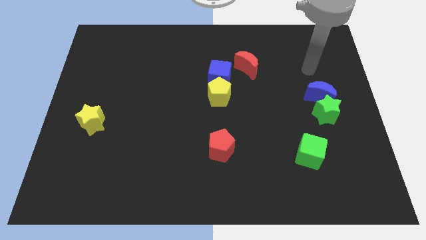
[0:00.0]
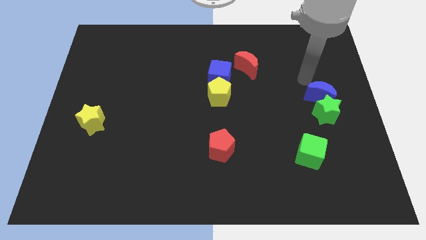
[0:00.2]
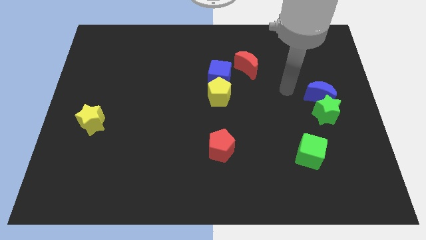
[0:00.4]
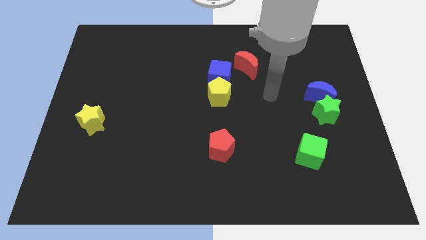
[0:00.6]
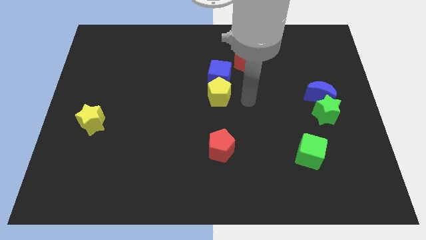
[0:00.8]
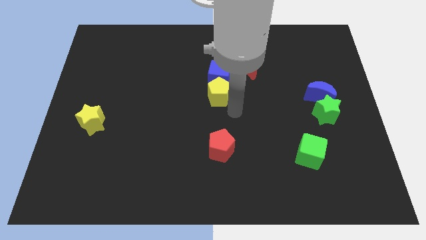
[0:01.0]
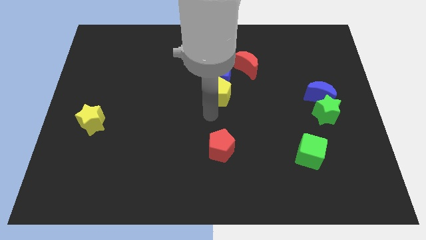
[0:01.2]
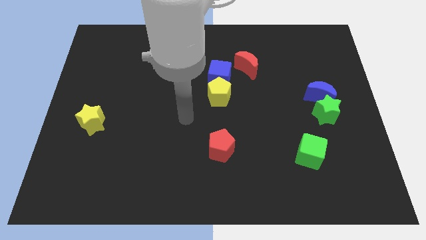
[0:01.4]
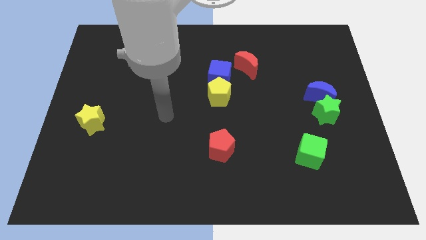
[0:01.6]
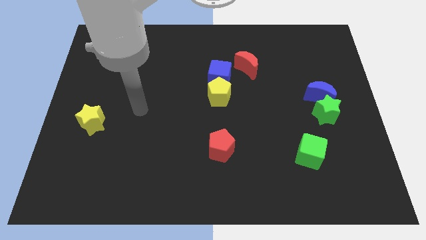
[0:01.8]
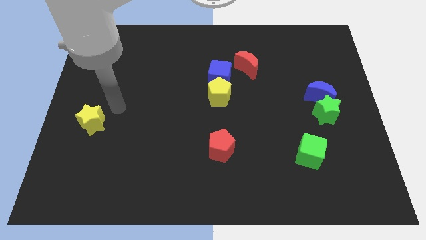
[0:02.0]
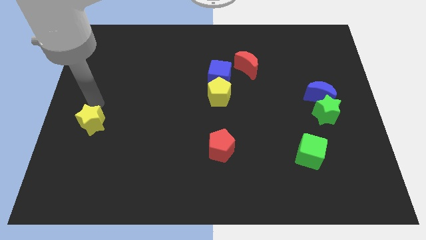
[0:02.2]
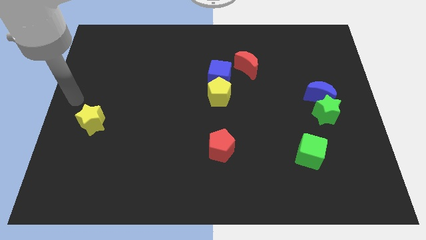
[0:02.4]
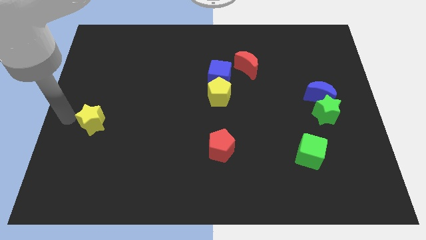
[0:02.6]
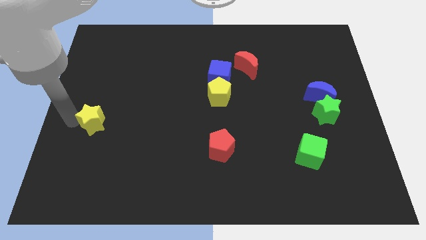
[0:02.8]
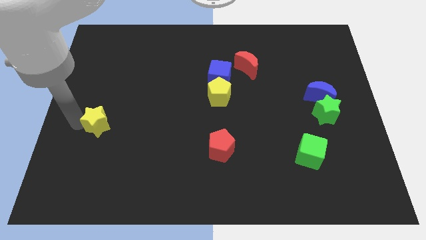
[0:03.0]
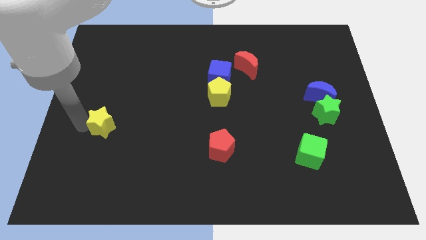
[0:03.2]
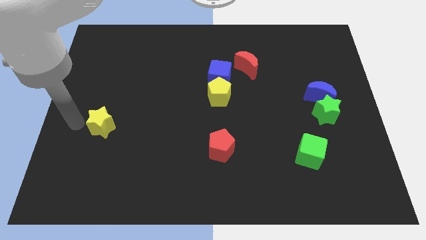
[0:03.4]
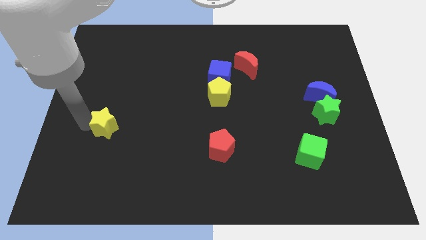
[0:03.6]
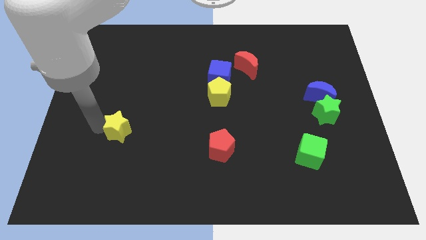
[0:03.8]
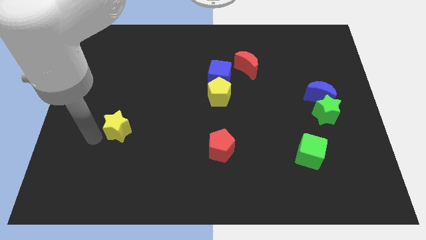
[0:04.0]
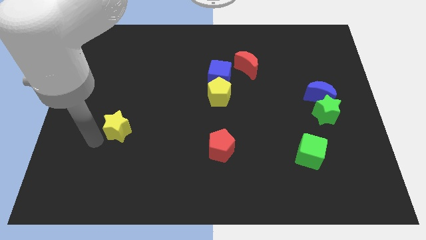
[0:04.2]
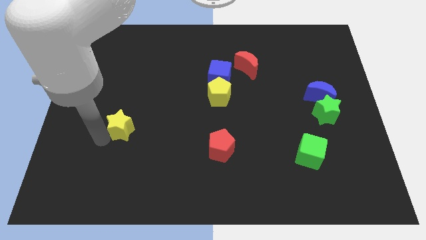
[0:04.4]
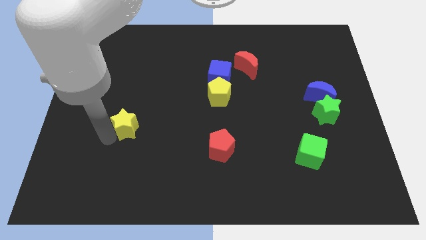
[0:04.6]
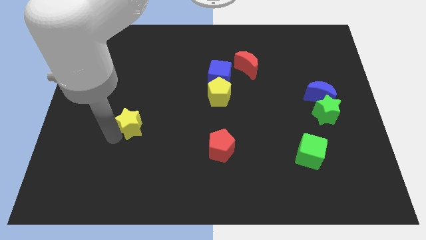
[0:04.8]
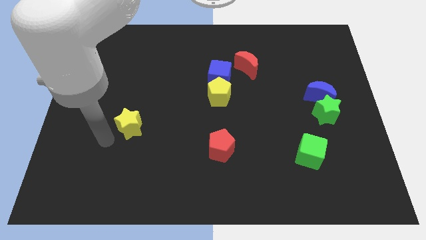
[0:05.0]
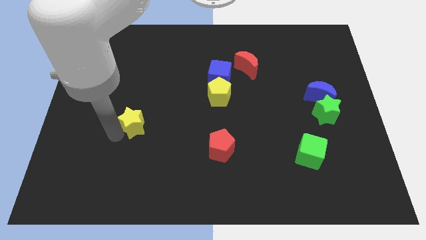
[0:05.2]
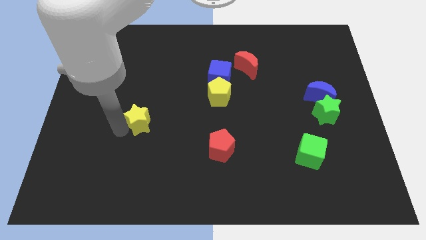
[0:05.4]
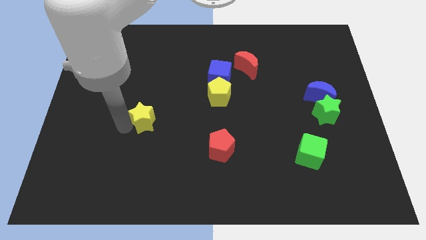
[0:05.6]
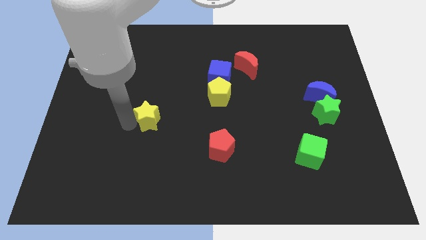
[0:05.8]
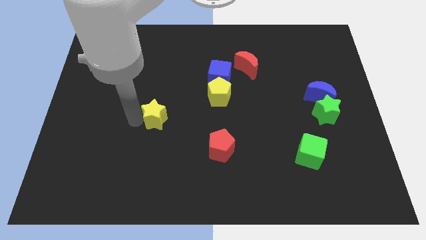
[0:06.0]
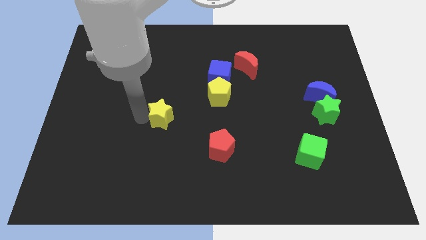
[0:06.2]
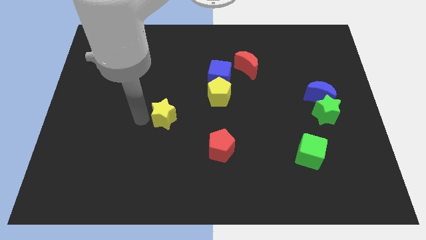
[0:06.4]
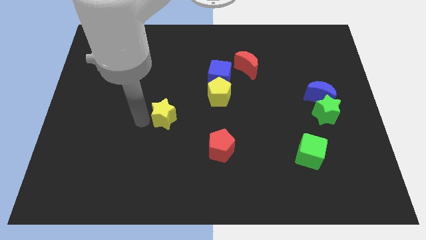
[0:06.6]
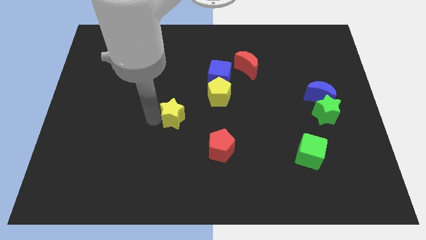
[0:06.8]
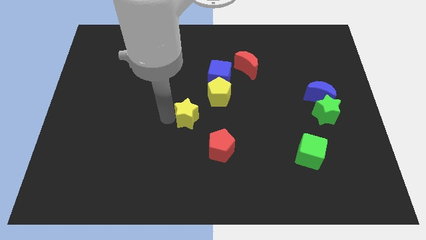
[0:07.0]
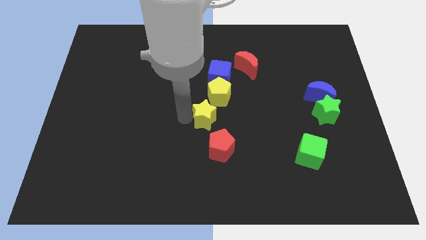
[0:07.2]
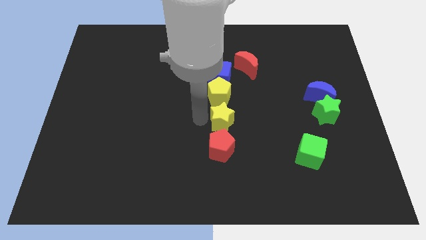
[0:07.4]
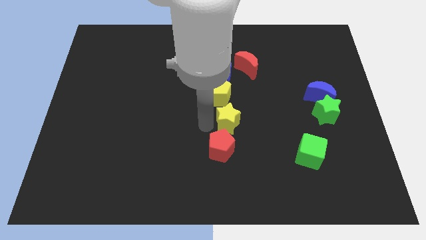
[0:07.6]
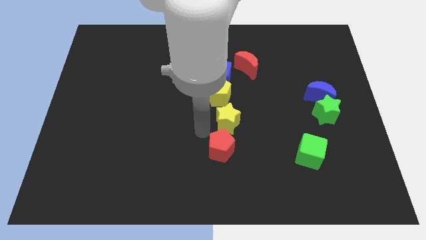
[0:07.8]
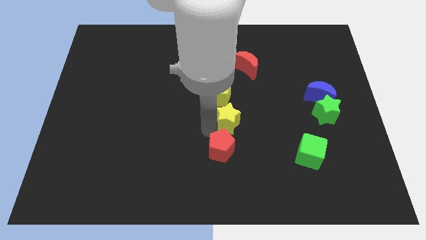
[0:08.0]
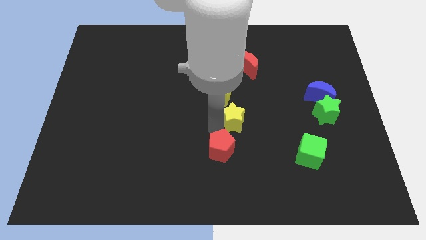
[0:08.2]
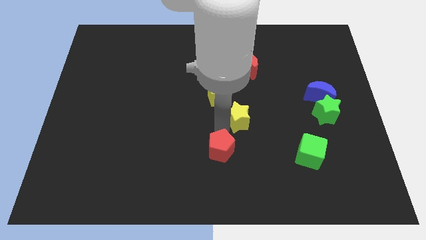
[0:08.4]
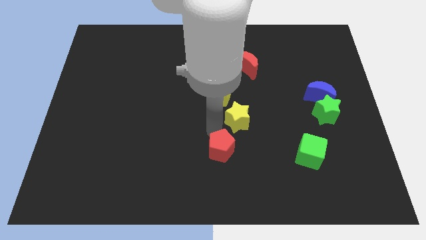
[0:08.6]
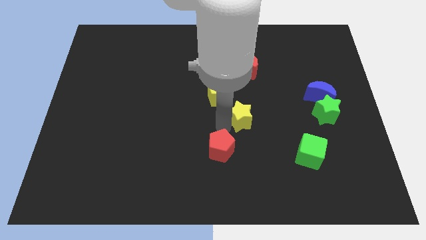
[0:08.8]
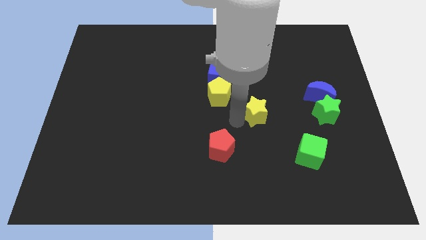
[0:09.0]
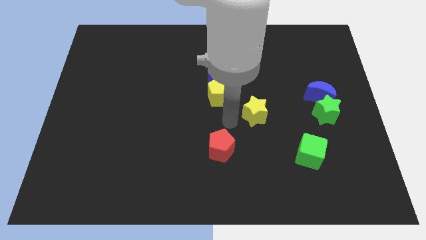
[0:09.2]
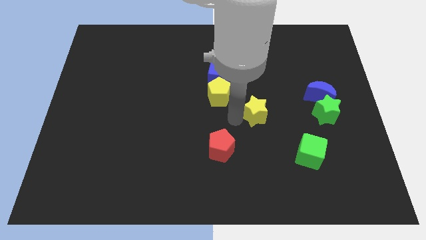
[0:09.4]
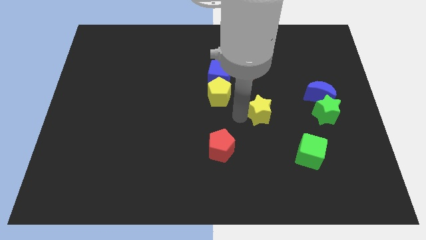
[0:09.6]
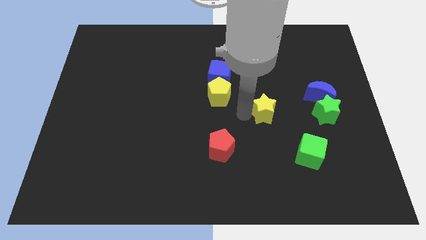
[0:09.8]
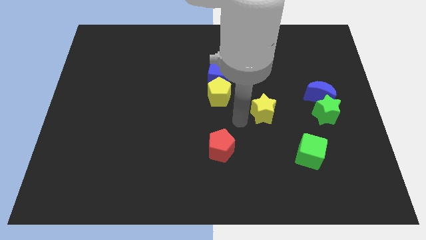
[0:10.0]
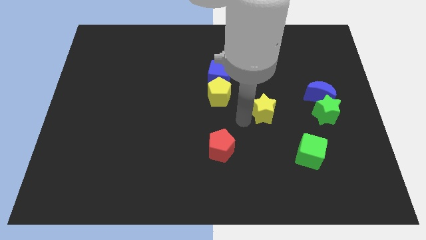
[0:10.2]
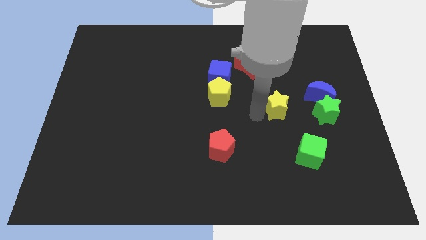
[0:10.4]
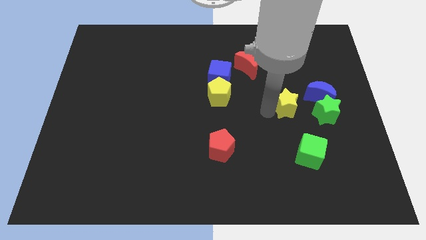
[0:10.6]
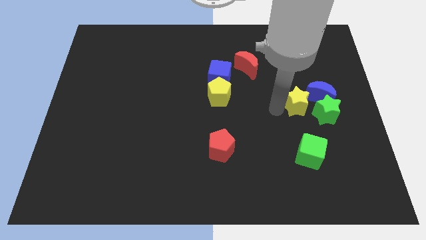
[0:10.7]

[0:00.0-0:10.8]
push the yellow star next to the blue moon

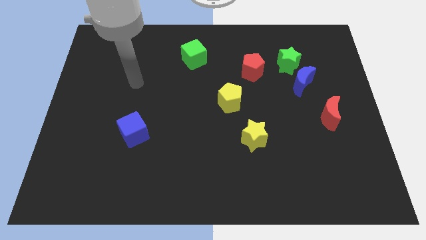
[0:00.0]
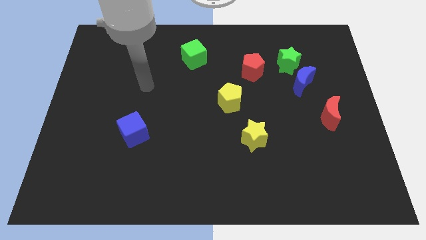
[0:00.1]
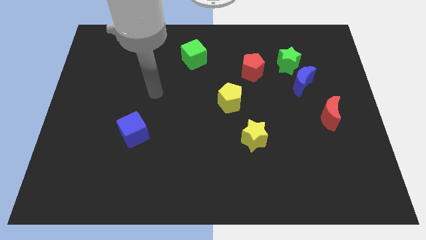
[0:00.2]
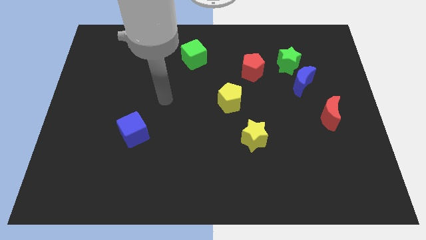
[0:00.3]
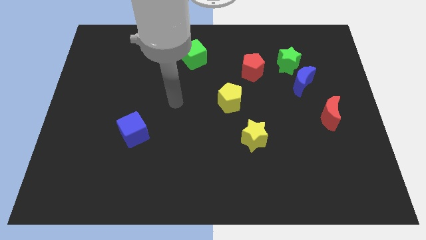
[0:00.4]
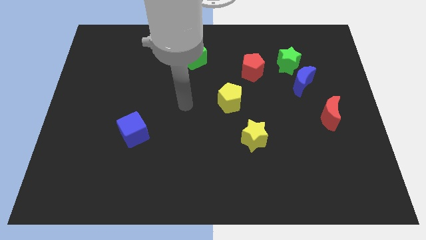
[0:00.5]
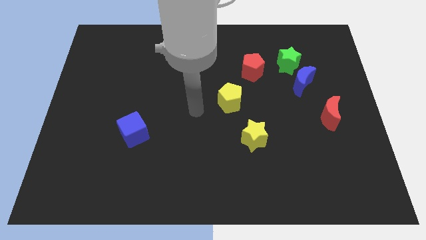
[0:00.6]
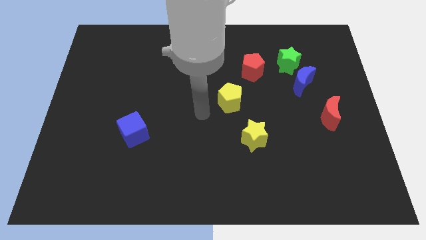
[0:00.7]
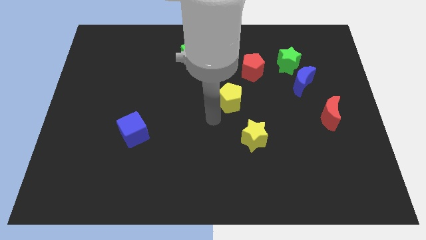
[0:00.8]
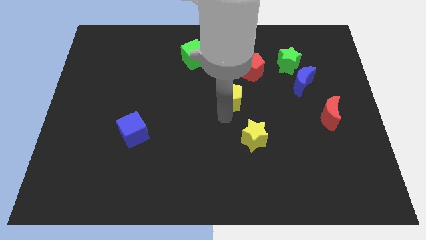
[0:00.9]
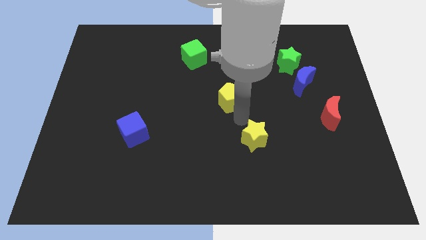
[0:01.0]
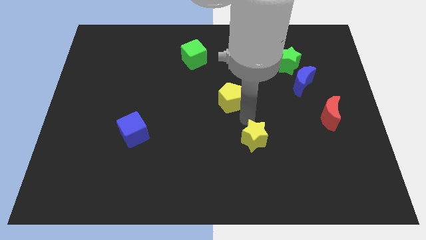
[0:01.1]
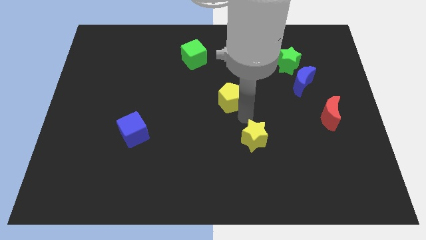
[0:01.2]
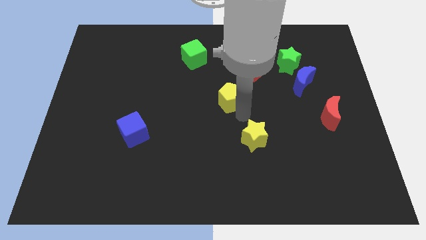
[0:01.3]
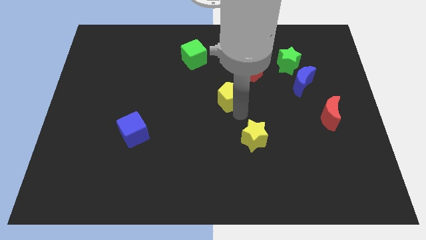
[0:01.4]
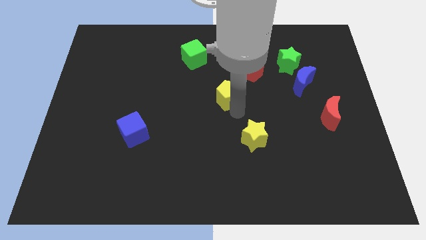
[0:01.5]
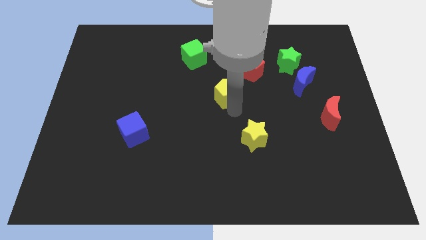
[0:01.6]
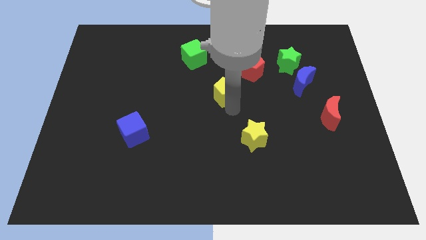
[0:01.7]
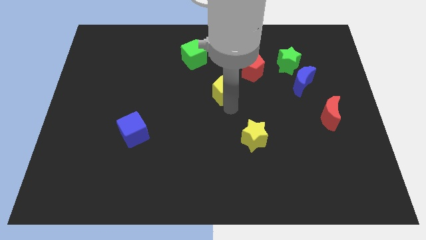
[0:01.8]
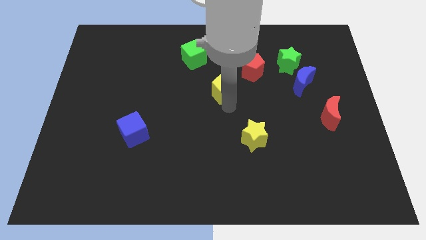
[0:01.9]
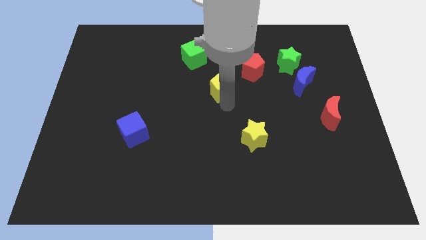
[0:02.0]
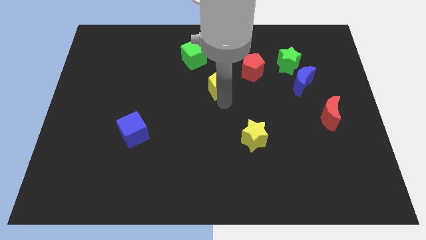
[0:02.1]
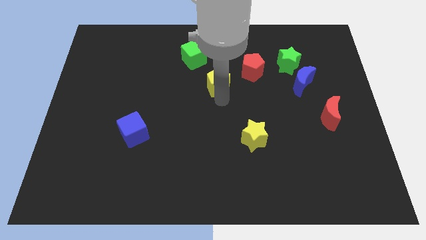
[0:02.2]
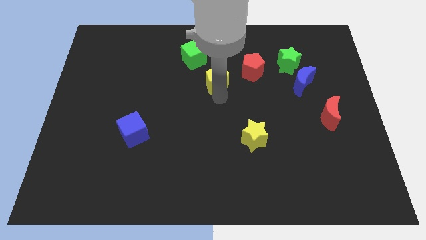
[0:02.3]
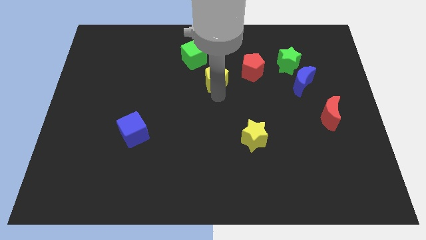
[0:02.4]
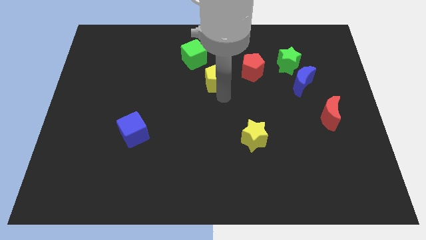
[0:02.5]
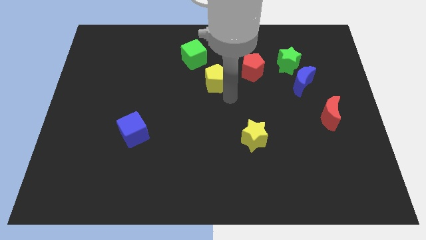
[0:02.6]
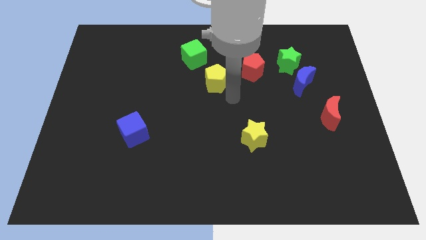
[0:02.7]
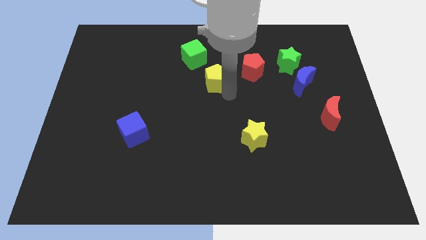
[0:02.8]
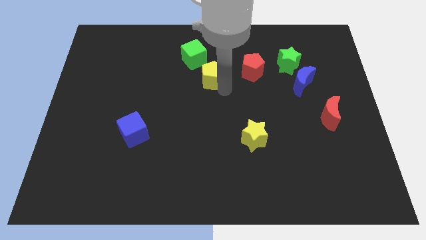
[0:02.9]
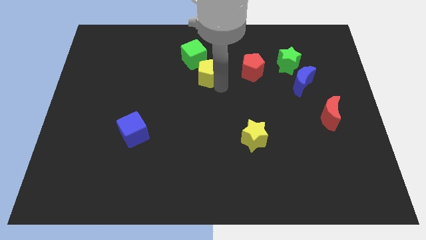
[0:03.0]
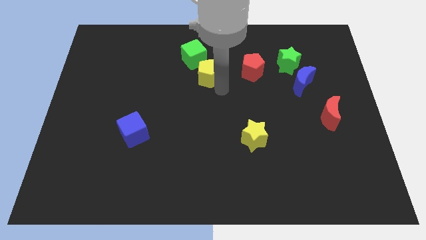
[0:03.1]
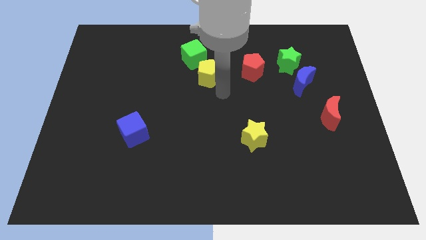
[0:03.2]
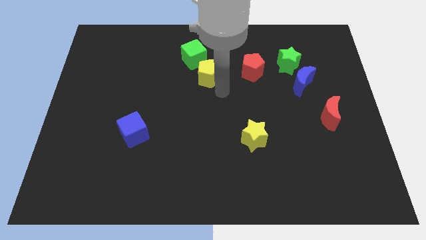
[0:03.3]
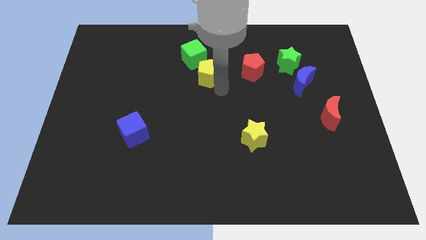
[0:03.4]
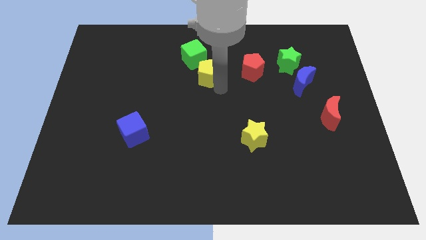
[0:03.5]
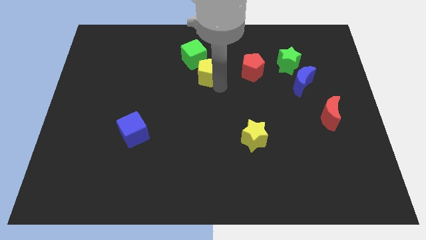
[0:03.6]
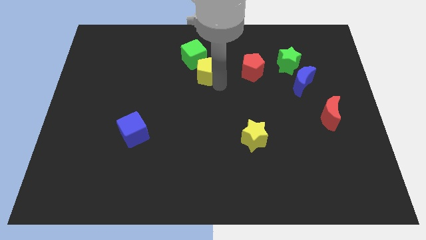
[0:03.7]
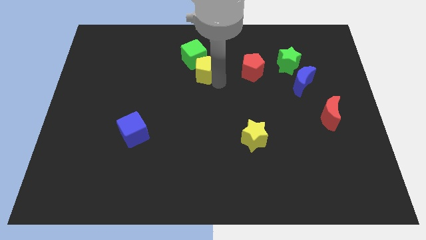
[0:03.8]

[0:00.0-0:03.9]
slide the yellow pentagon close to the green cube
